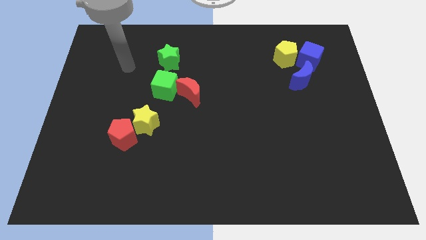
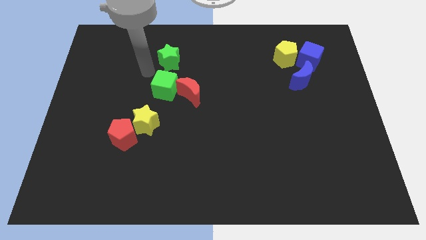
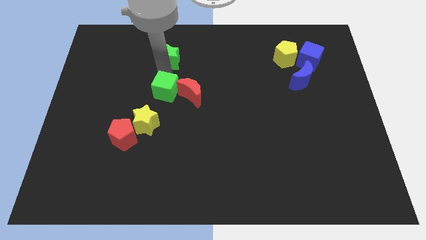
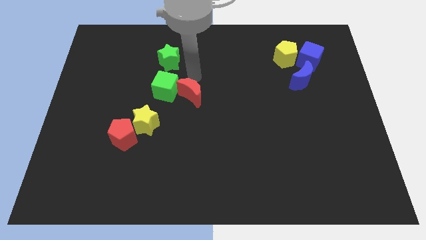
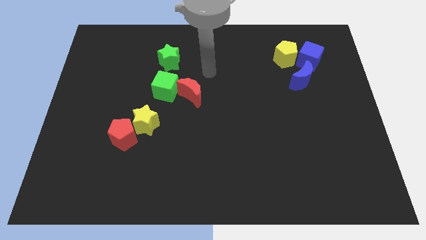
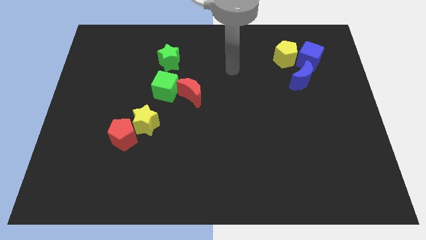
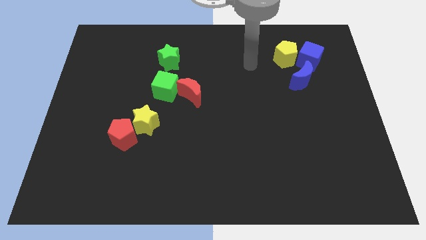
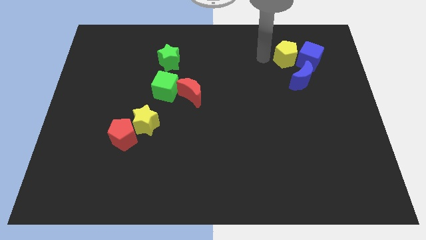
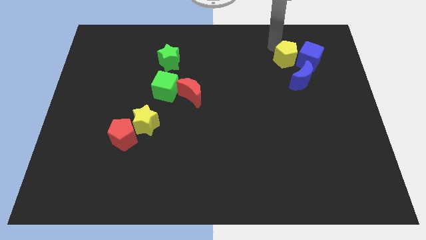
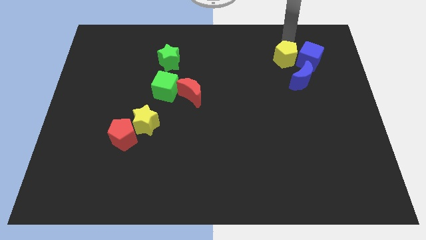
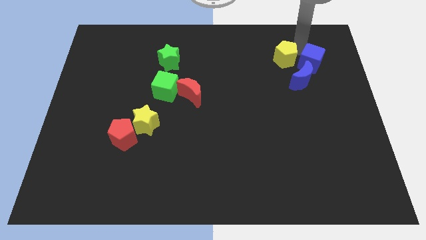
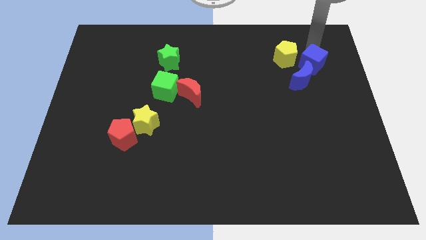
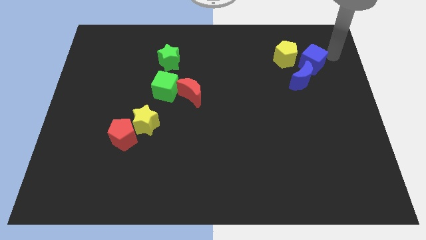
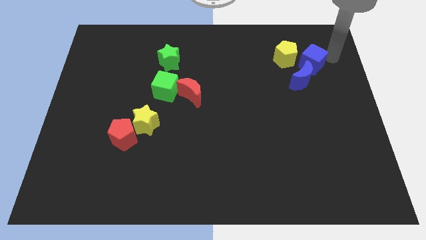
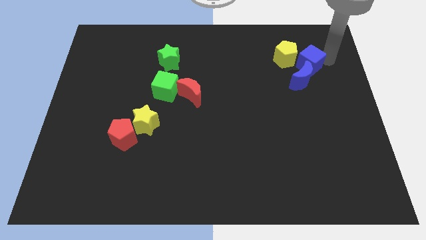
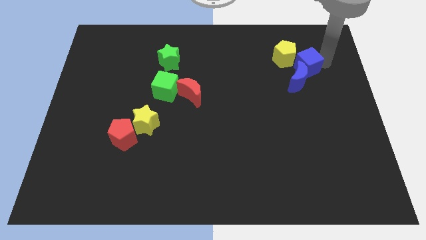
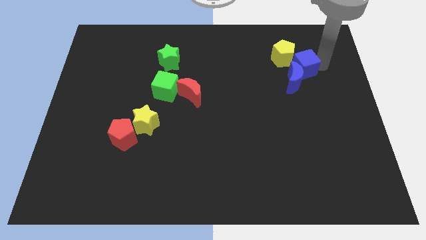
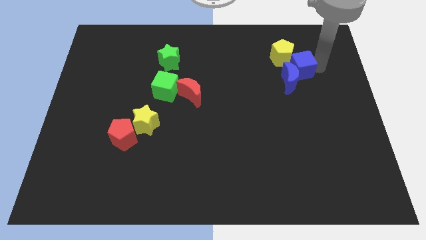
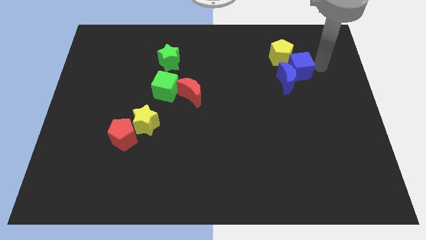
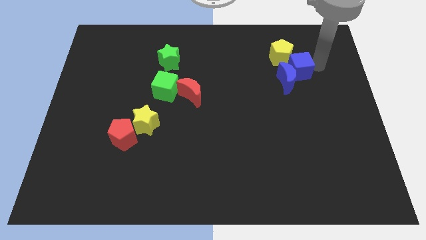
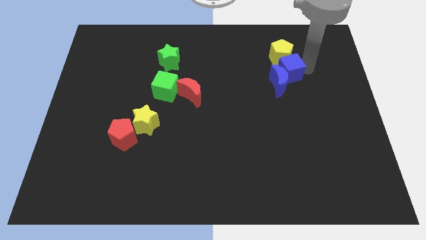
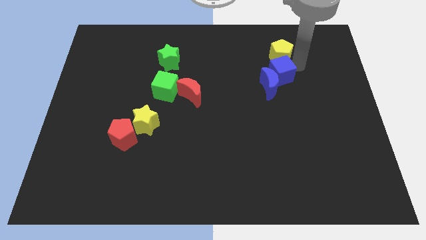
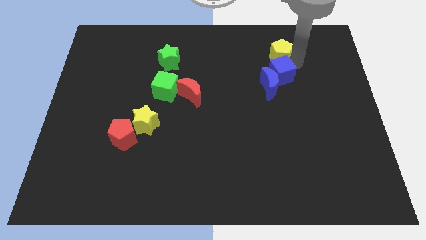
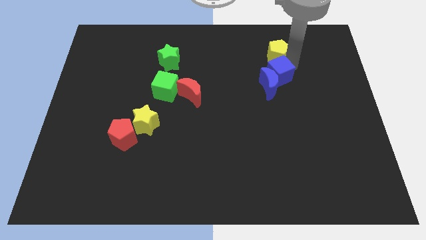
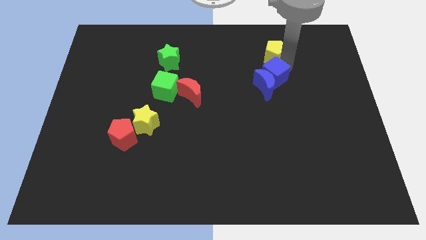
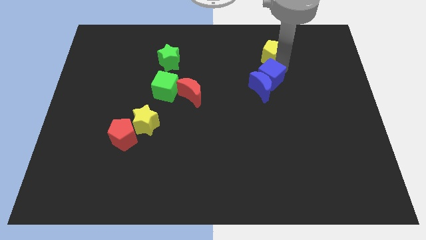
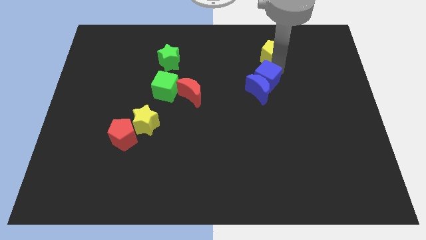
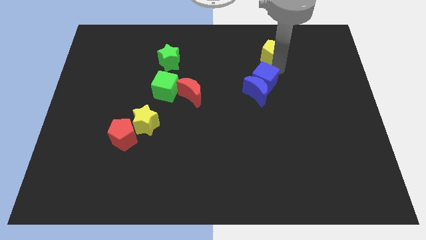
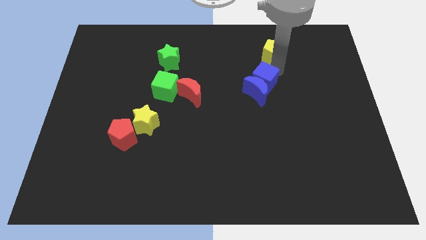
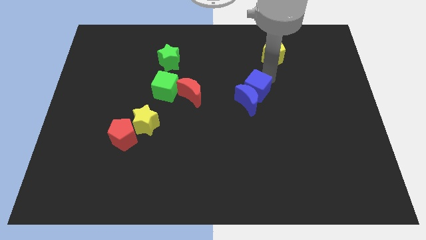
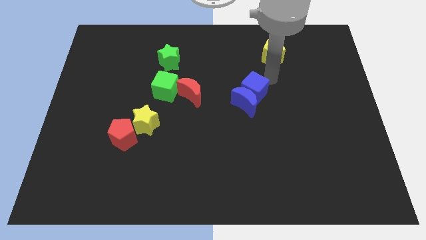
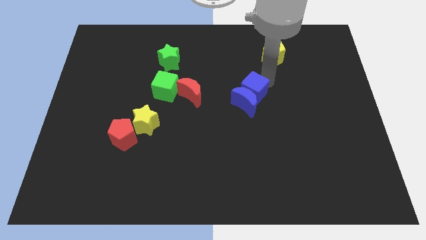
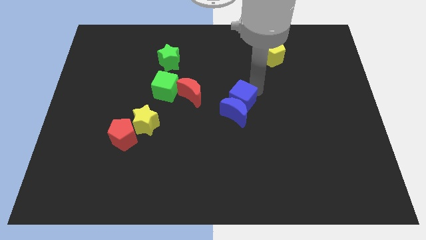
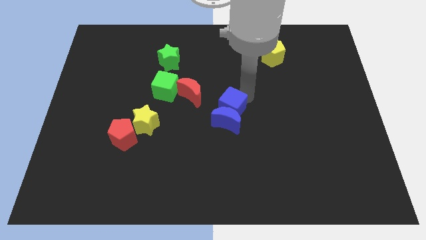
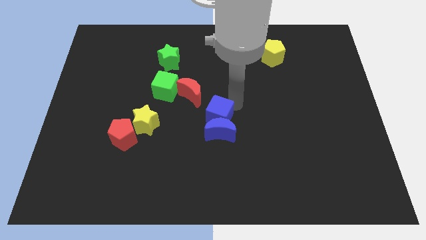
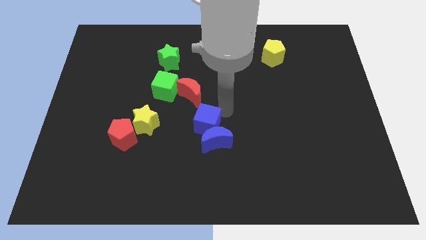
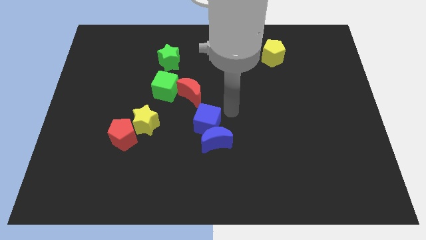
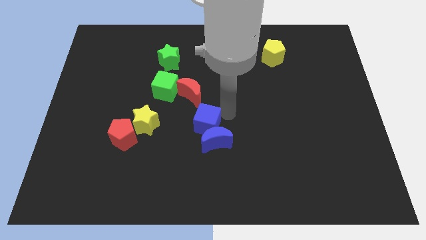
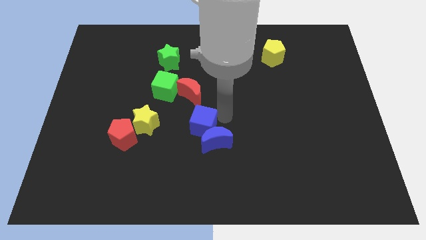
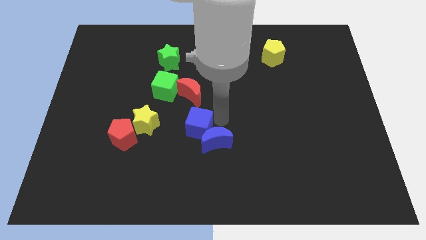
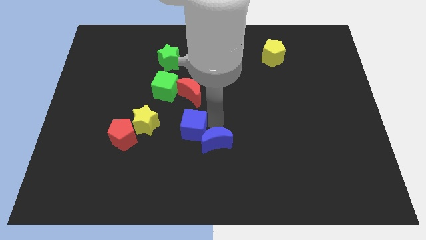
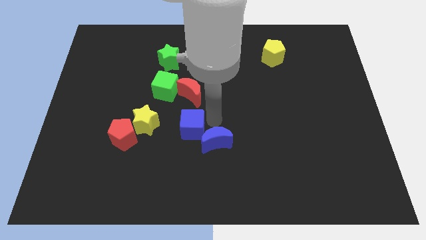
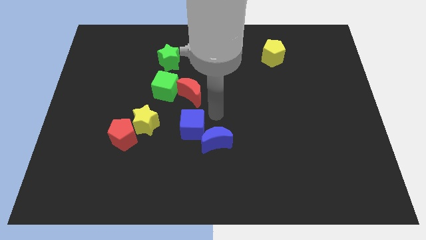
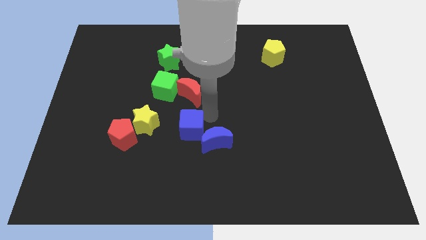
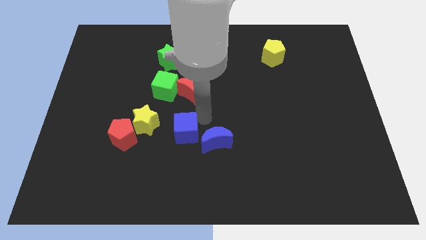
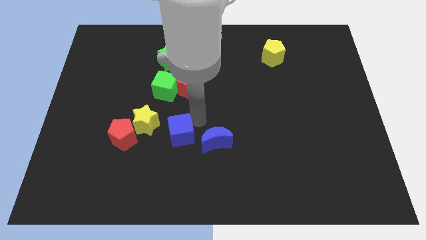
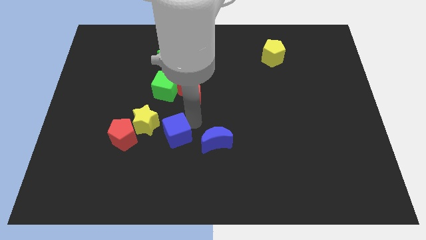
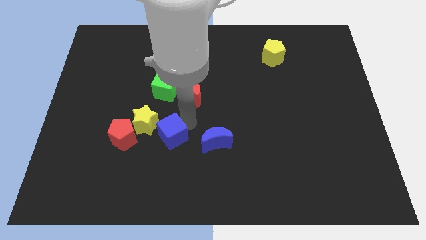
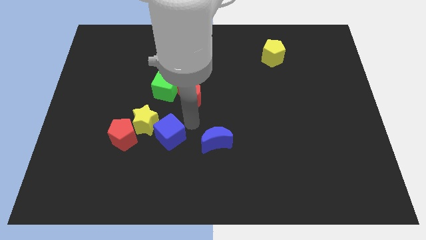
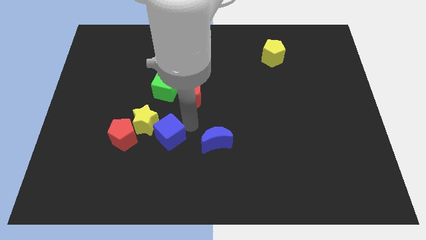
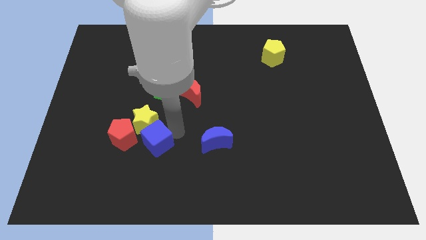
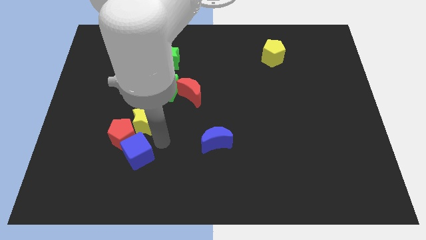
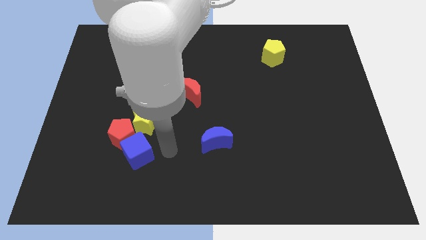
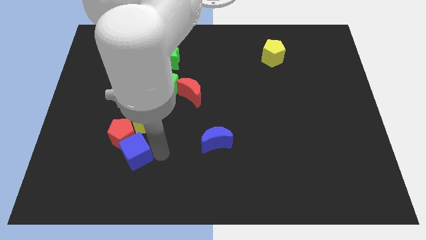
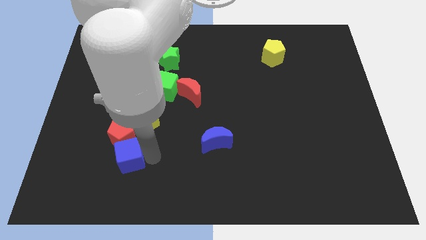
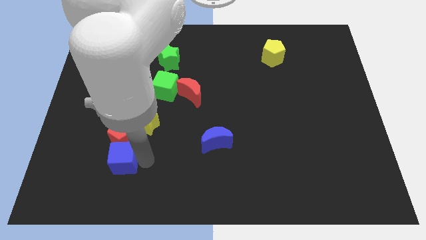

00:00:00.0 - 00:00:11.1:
slide the blue cube to the bottom left of the red pentagon
